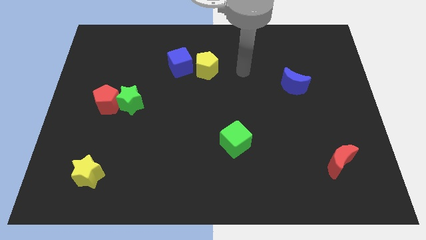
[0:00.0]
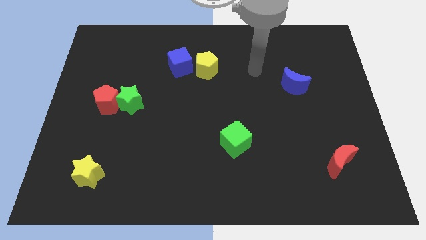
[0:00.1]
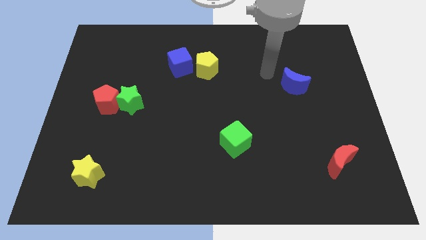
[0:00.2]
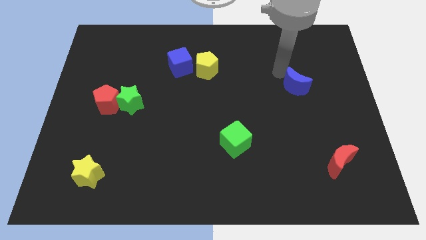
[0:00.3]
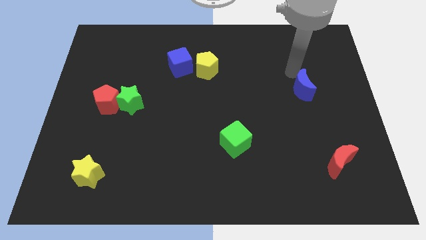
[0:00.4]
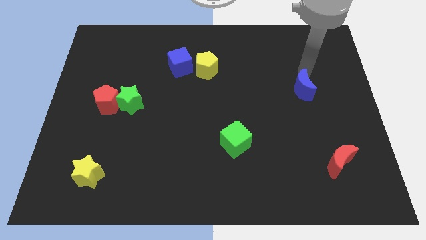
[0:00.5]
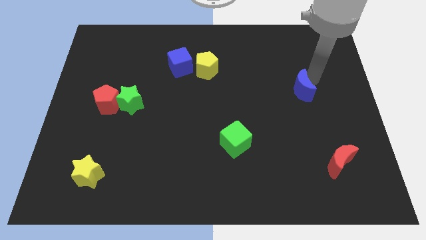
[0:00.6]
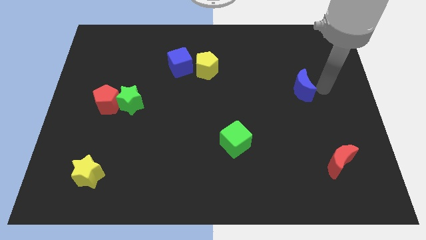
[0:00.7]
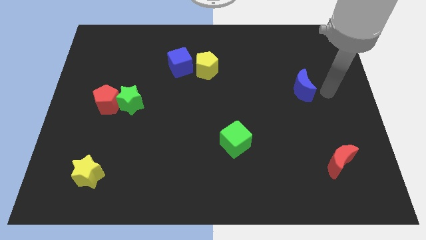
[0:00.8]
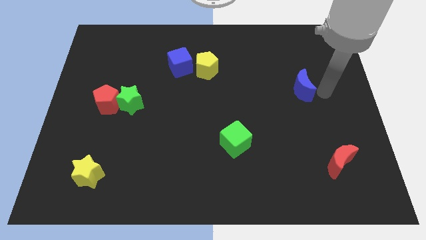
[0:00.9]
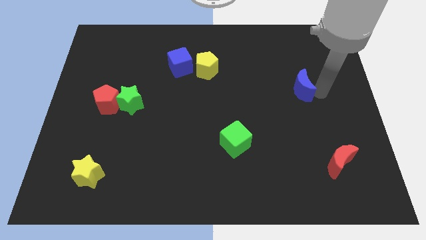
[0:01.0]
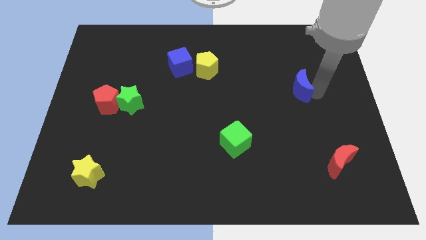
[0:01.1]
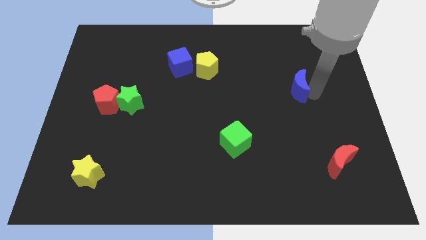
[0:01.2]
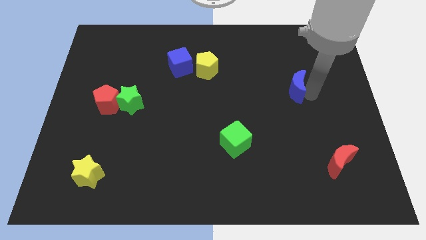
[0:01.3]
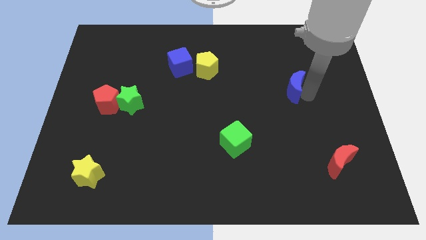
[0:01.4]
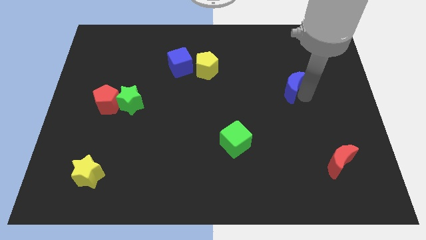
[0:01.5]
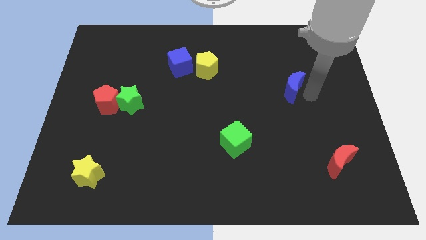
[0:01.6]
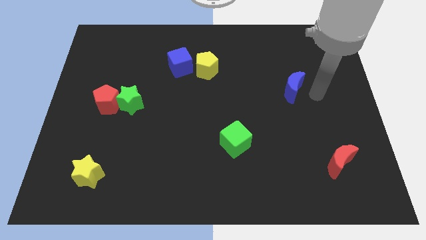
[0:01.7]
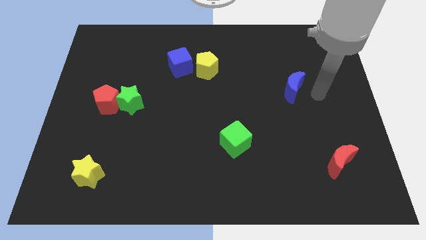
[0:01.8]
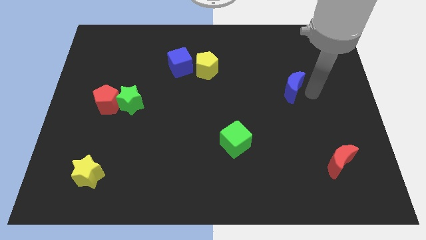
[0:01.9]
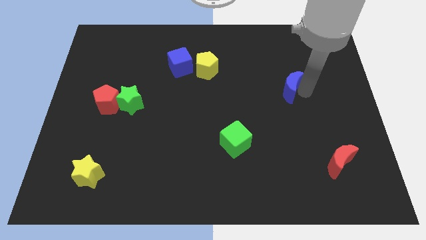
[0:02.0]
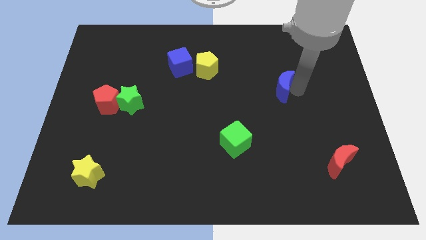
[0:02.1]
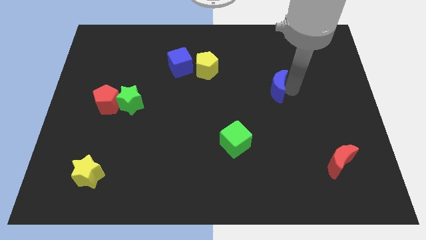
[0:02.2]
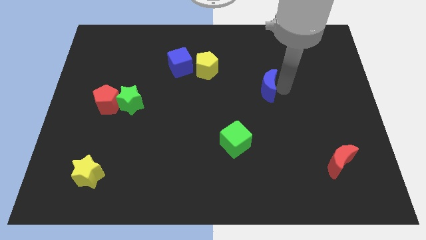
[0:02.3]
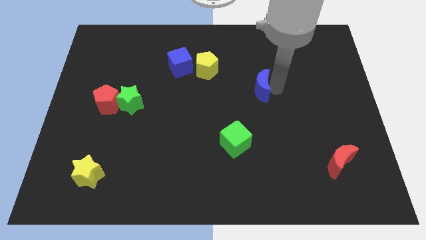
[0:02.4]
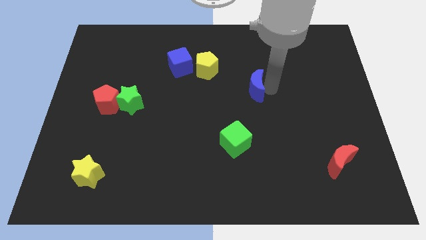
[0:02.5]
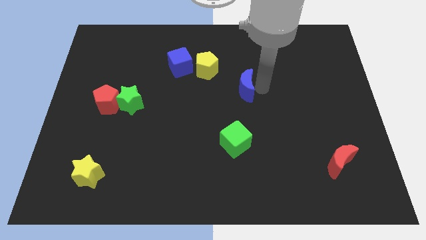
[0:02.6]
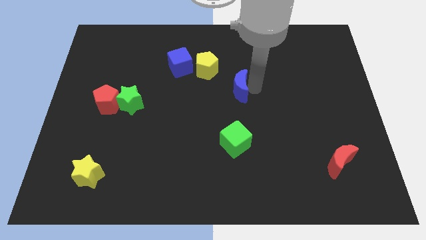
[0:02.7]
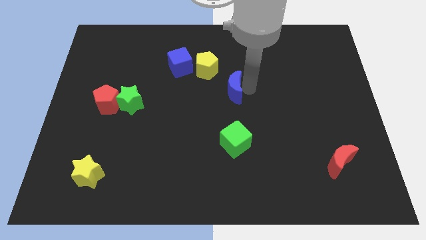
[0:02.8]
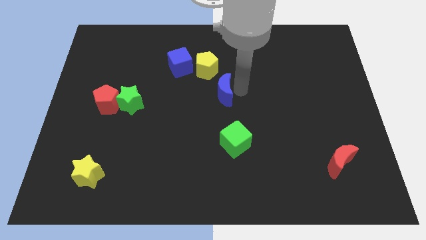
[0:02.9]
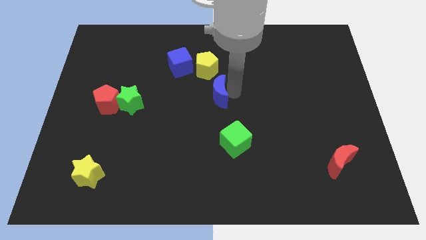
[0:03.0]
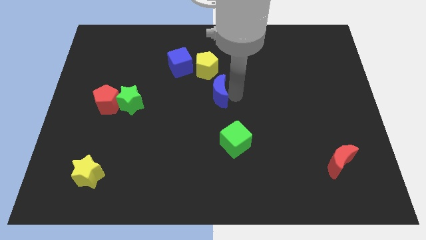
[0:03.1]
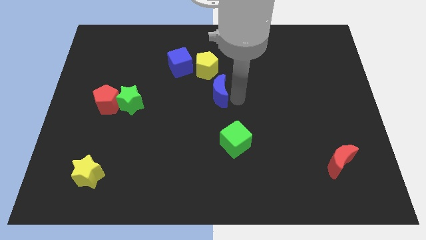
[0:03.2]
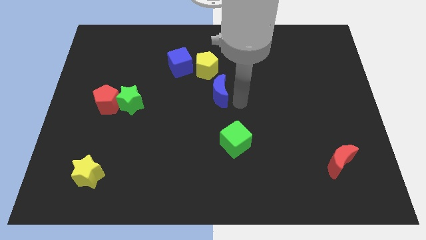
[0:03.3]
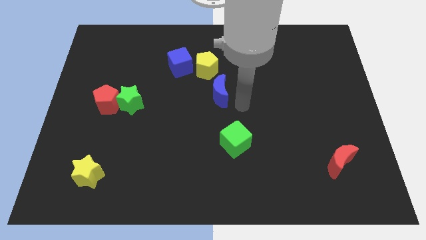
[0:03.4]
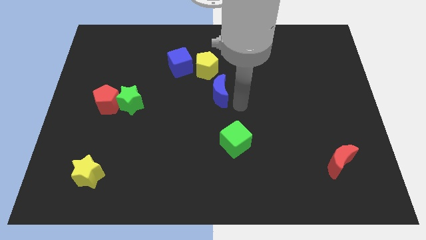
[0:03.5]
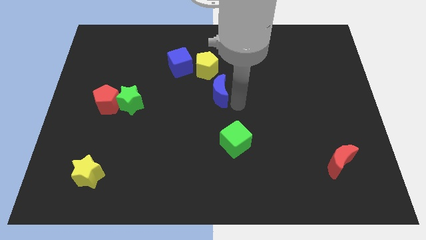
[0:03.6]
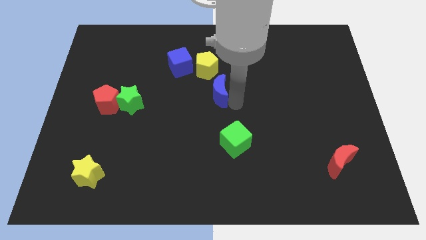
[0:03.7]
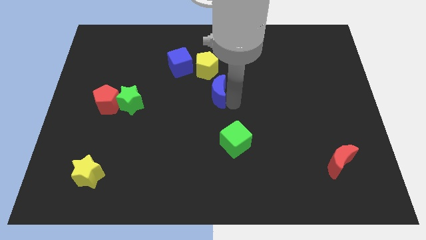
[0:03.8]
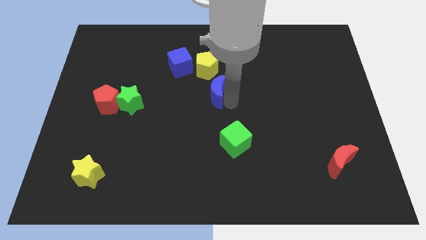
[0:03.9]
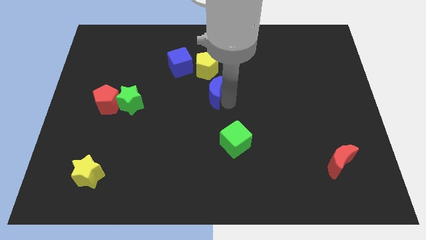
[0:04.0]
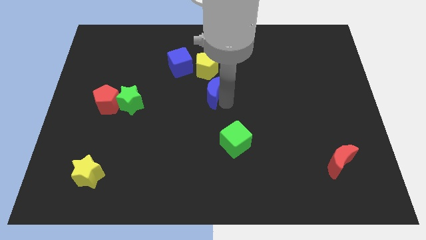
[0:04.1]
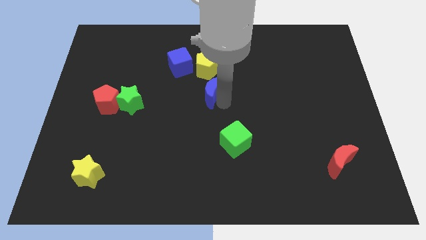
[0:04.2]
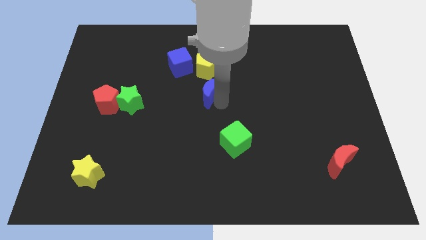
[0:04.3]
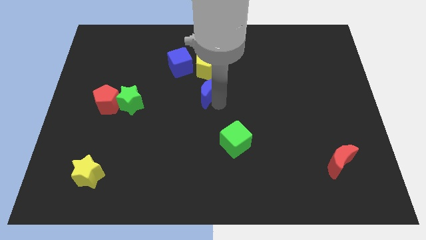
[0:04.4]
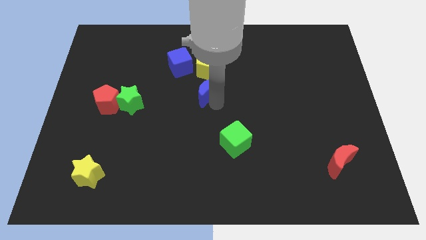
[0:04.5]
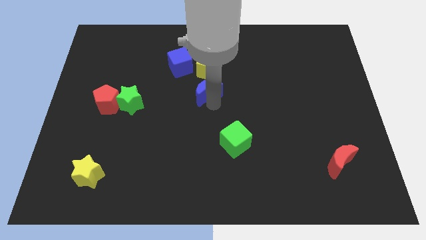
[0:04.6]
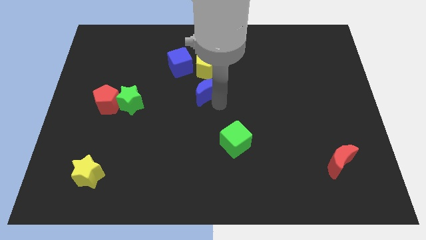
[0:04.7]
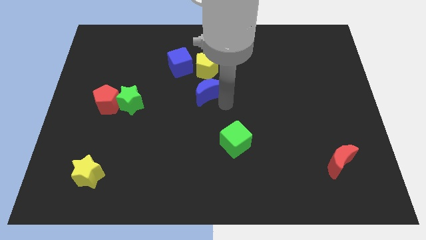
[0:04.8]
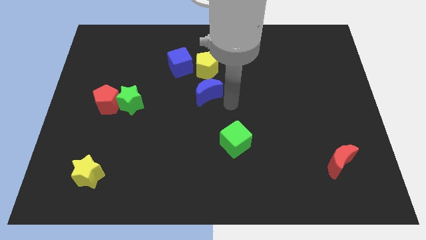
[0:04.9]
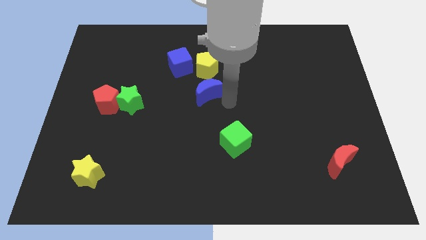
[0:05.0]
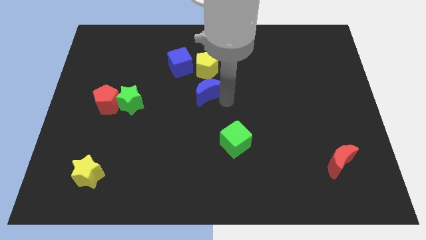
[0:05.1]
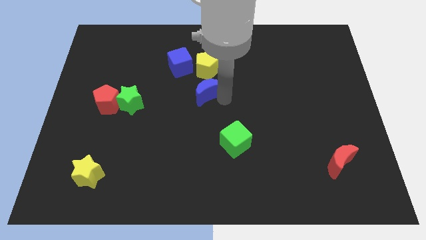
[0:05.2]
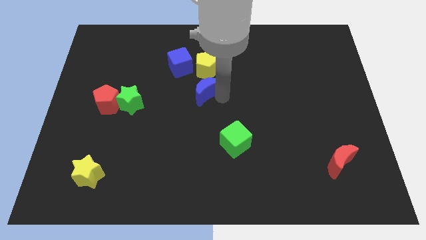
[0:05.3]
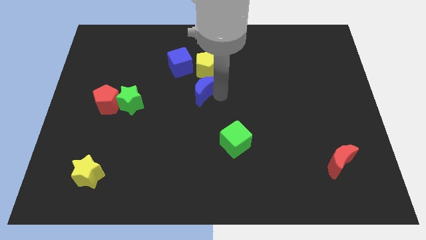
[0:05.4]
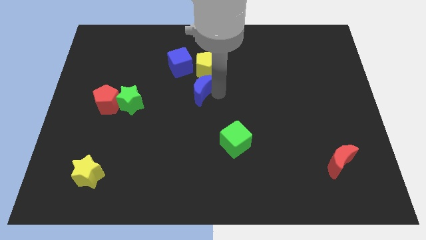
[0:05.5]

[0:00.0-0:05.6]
move the blue moon to the bottom left side of the yellow pentagon

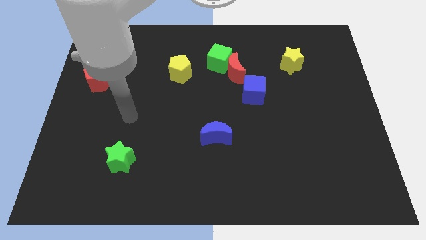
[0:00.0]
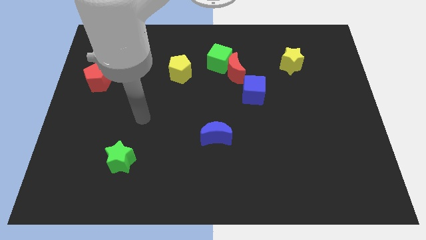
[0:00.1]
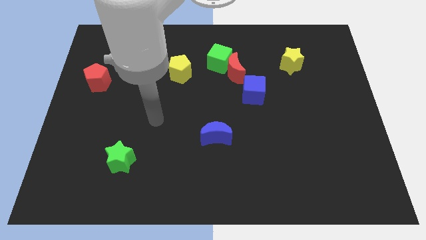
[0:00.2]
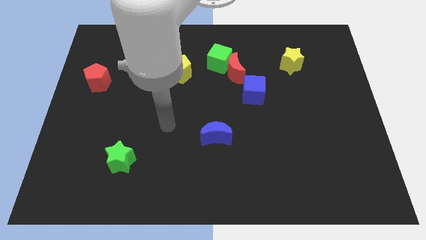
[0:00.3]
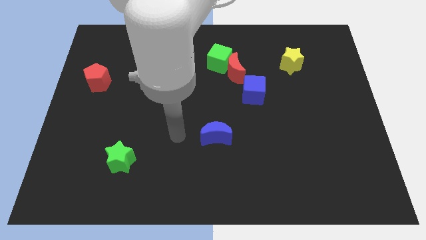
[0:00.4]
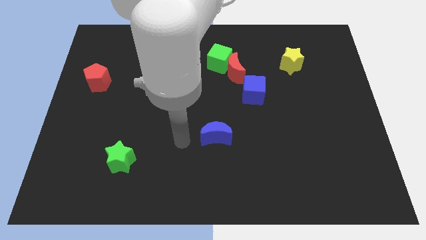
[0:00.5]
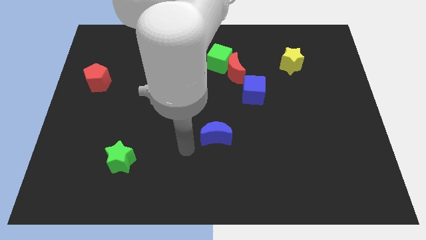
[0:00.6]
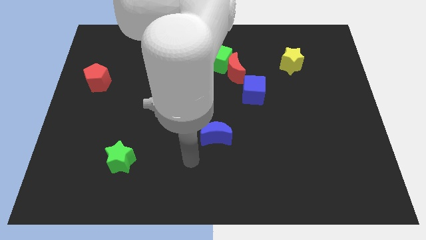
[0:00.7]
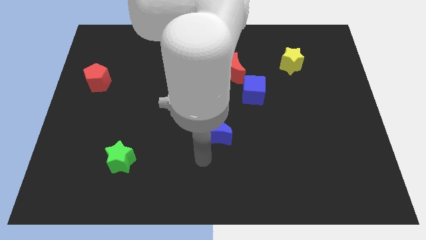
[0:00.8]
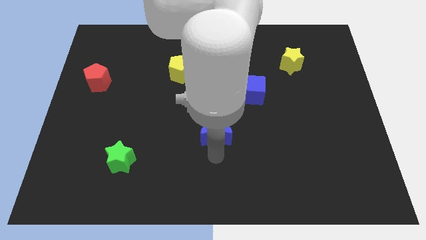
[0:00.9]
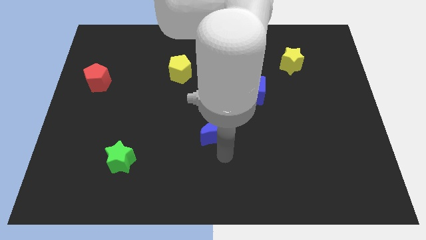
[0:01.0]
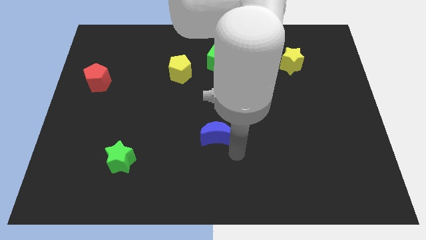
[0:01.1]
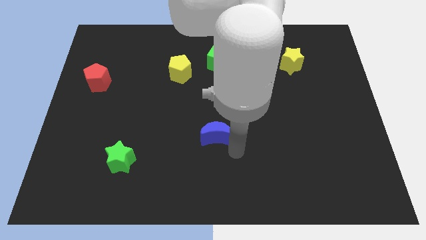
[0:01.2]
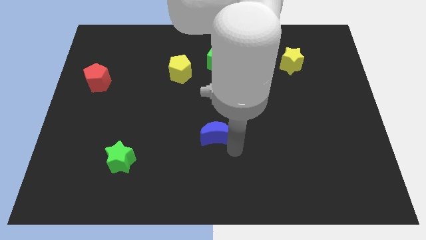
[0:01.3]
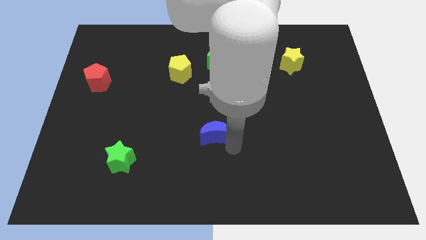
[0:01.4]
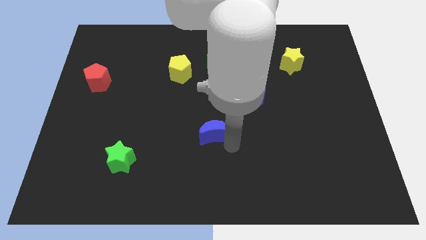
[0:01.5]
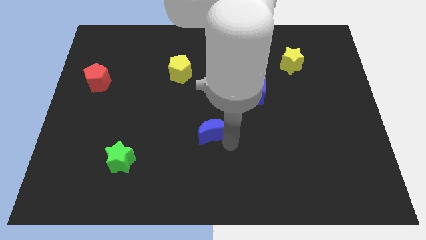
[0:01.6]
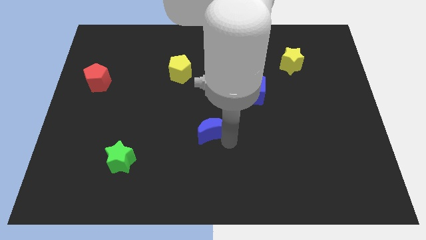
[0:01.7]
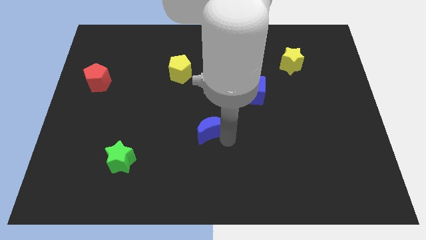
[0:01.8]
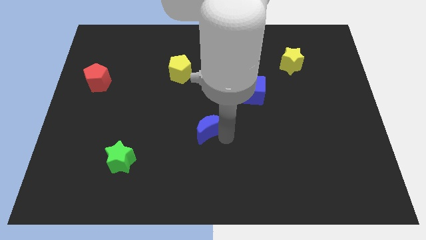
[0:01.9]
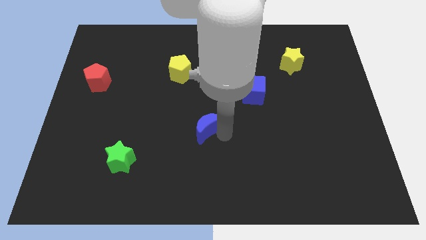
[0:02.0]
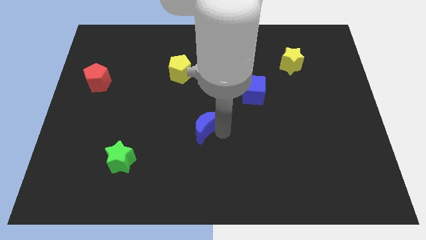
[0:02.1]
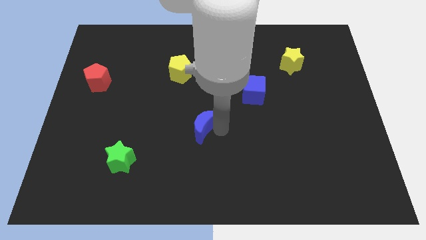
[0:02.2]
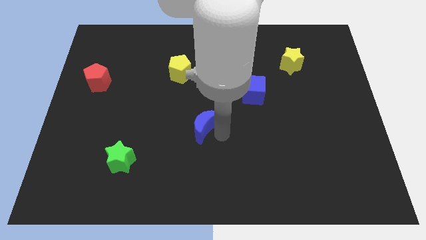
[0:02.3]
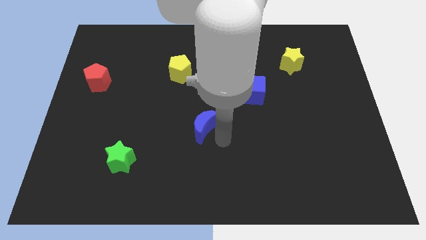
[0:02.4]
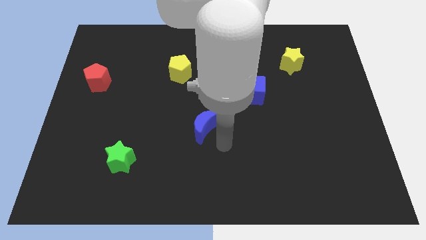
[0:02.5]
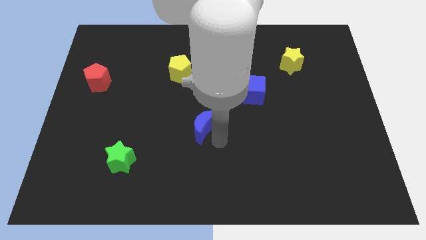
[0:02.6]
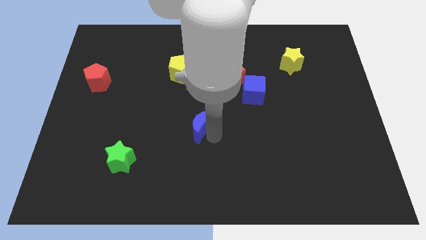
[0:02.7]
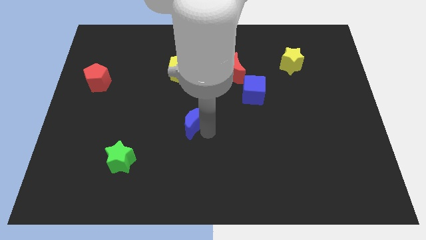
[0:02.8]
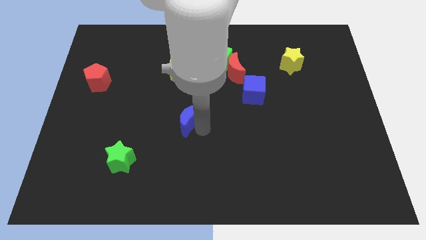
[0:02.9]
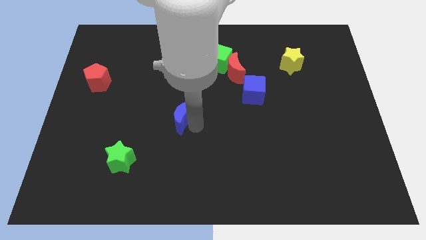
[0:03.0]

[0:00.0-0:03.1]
put the blue moon below the yellow pentagon
